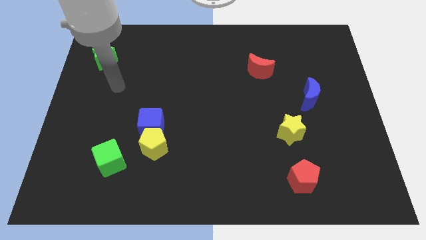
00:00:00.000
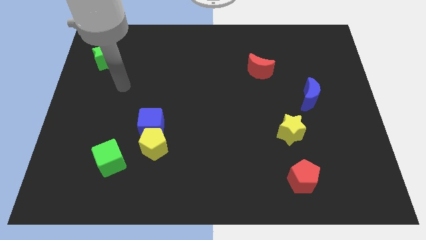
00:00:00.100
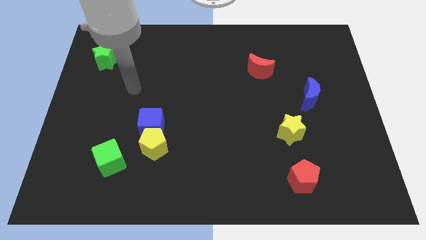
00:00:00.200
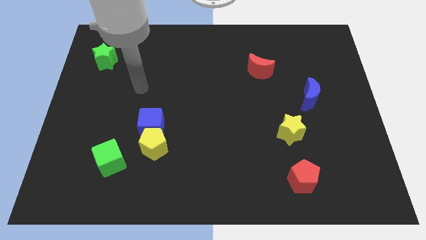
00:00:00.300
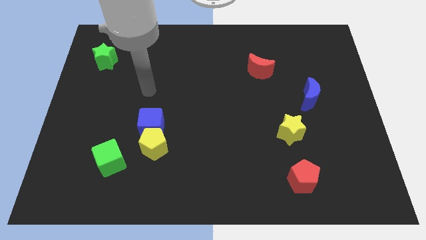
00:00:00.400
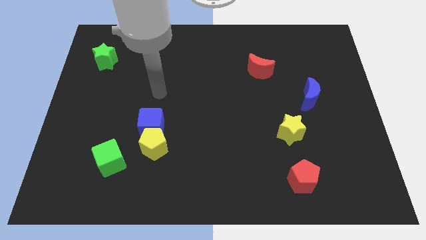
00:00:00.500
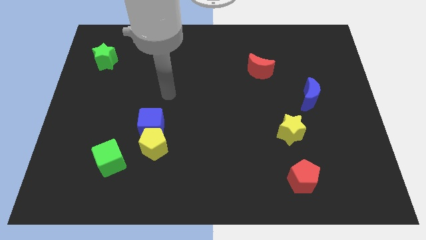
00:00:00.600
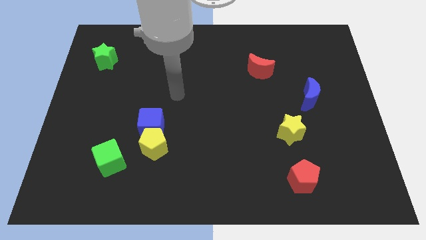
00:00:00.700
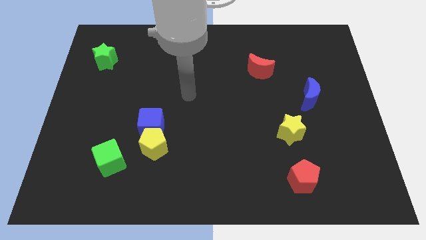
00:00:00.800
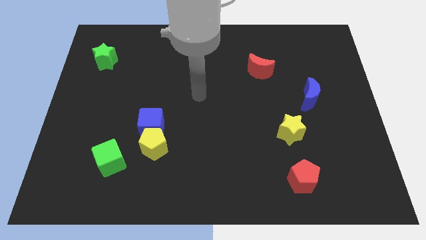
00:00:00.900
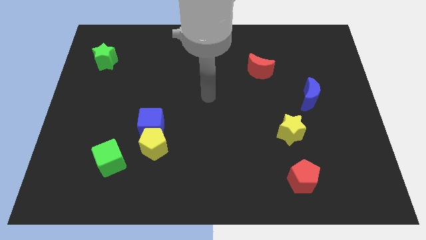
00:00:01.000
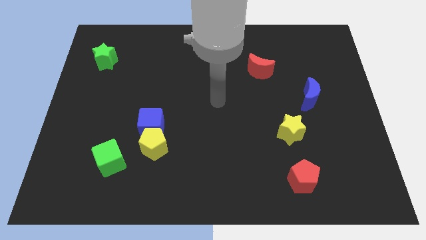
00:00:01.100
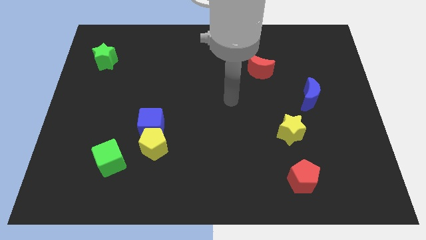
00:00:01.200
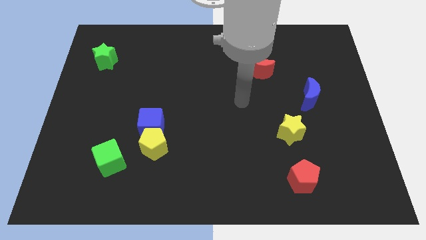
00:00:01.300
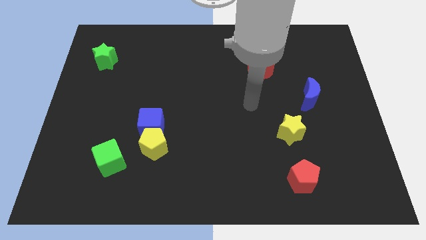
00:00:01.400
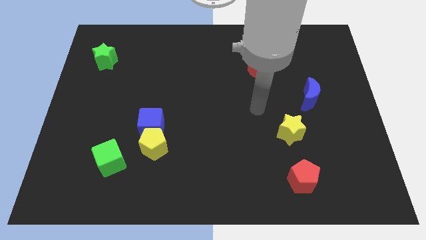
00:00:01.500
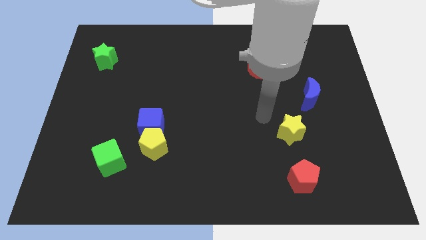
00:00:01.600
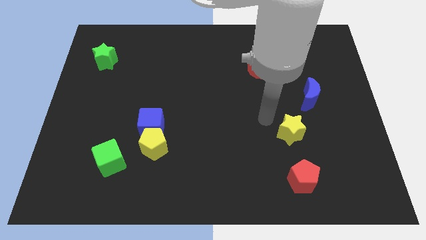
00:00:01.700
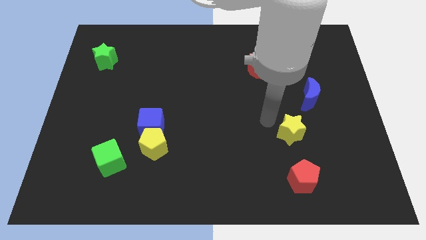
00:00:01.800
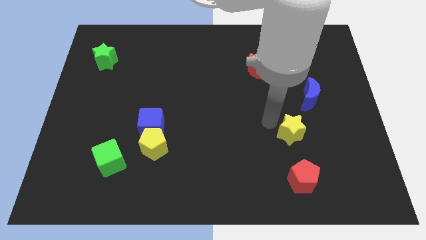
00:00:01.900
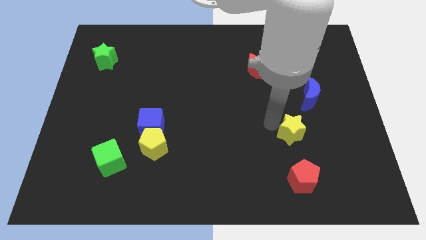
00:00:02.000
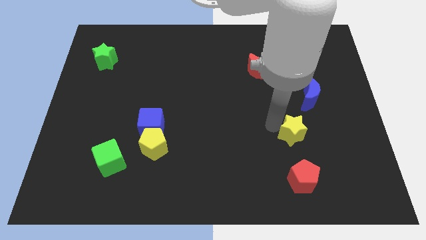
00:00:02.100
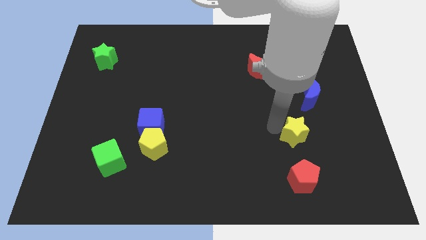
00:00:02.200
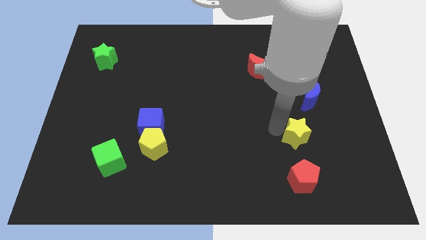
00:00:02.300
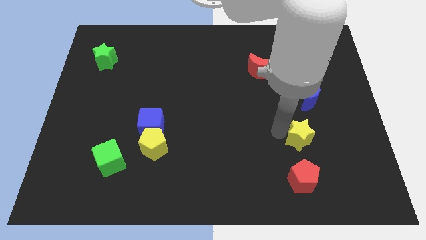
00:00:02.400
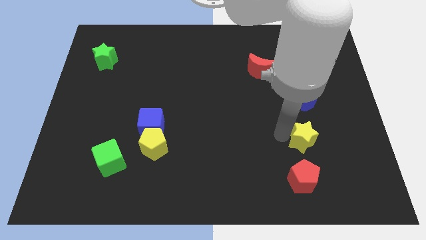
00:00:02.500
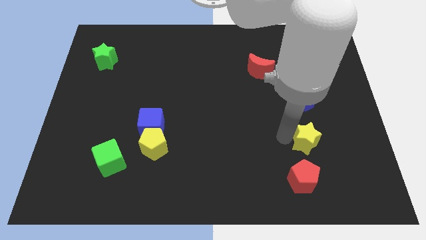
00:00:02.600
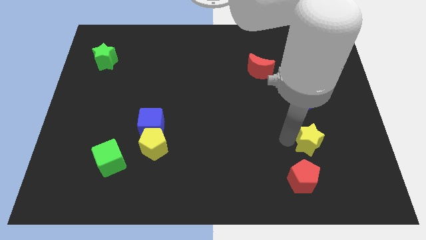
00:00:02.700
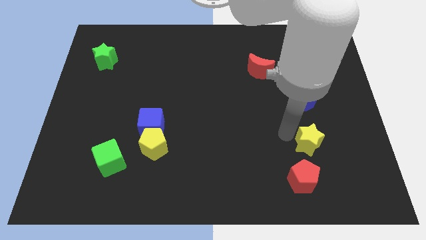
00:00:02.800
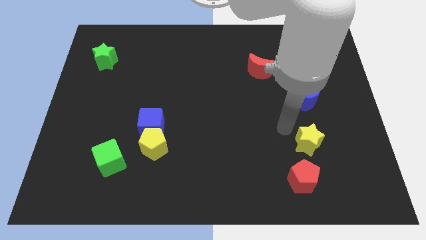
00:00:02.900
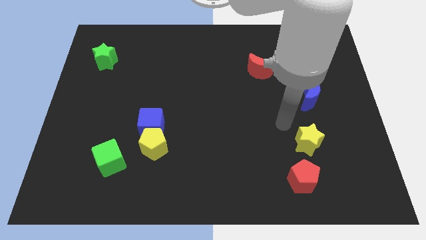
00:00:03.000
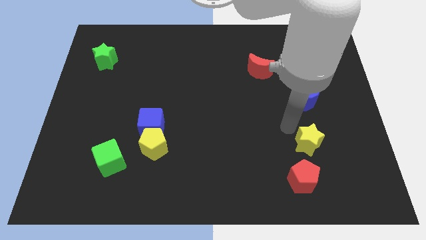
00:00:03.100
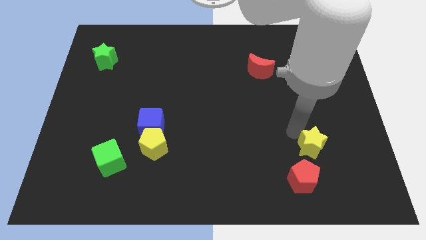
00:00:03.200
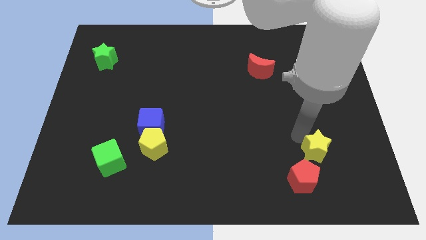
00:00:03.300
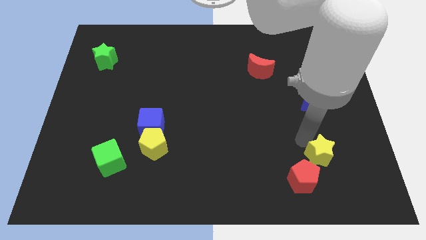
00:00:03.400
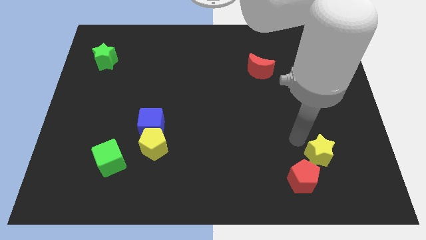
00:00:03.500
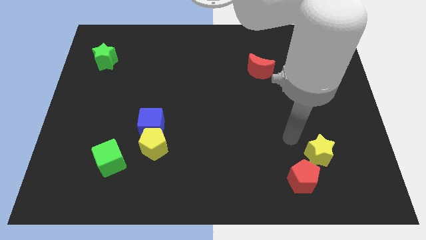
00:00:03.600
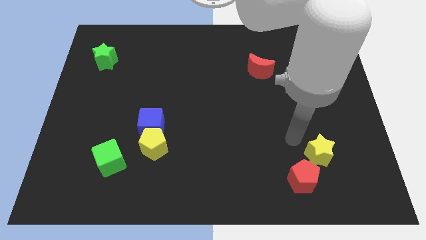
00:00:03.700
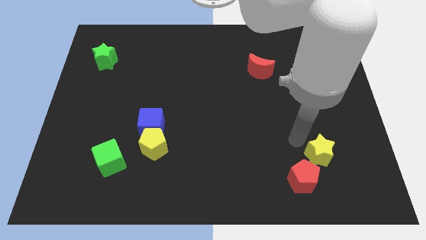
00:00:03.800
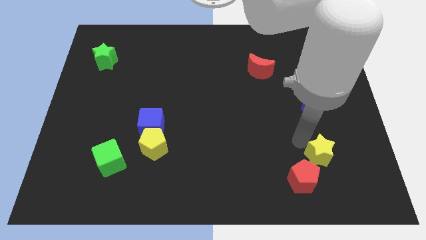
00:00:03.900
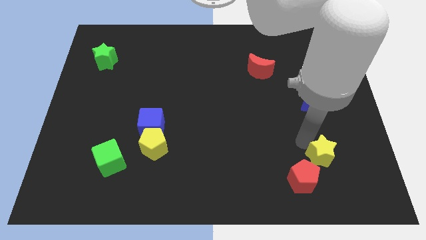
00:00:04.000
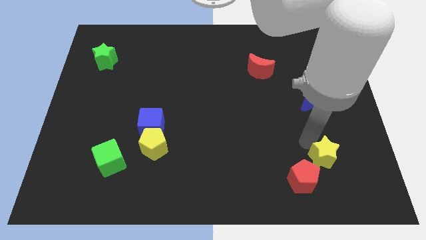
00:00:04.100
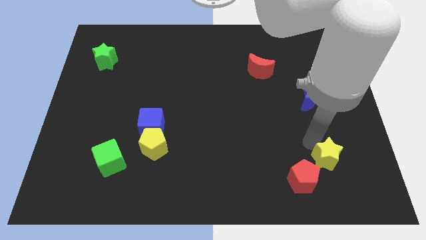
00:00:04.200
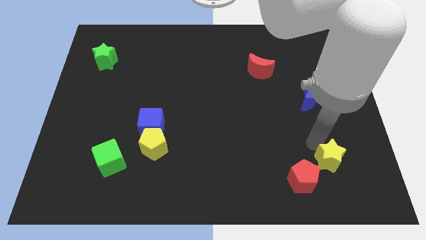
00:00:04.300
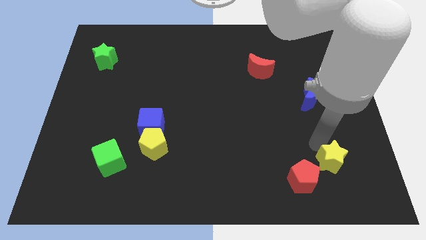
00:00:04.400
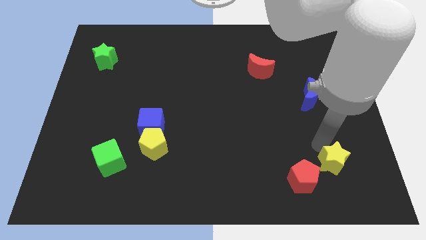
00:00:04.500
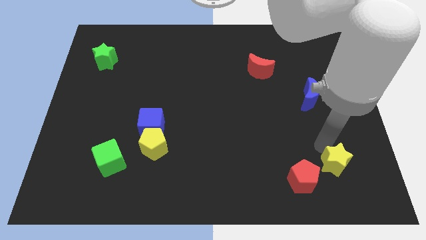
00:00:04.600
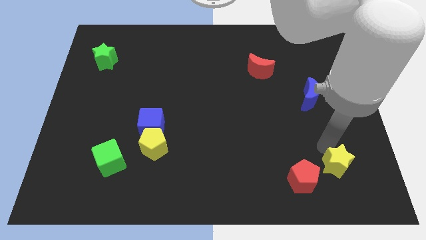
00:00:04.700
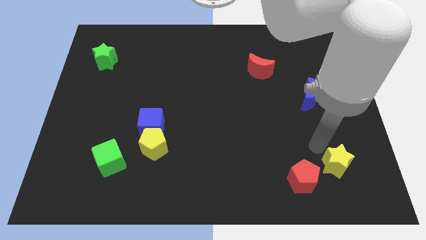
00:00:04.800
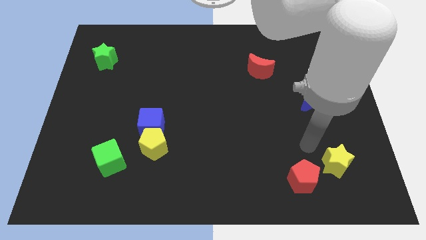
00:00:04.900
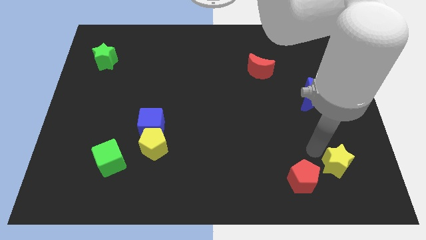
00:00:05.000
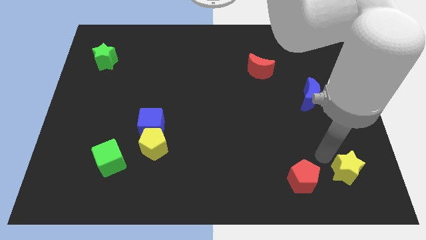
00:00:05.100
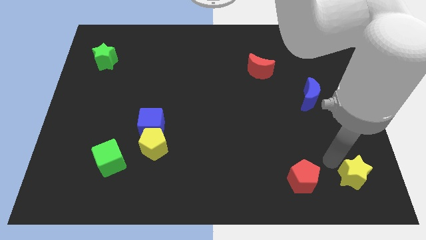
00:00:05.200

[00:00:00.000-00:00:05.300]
push the yellow star to the lower right corner

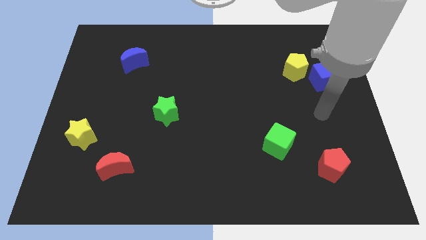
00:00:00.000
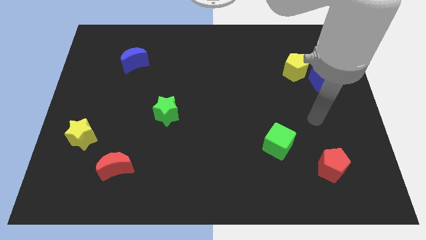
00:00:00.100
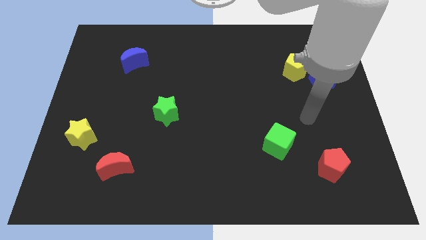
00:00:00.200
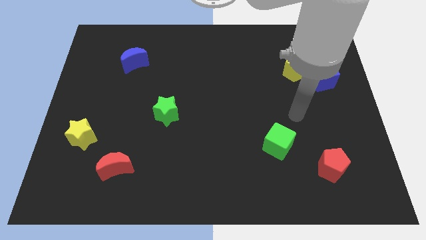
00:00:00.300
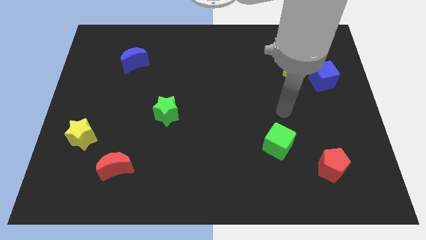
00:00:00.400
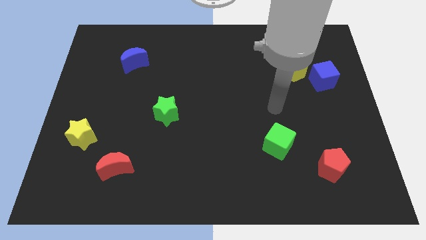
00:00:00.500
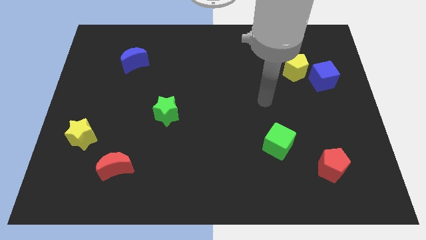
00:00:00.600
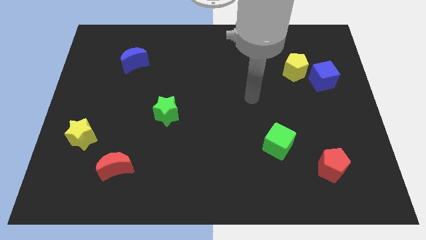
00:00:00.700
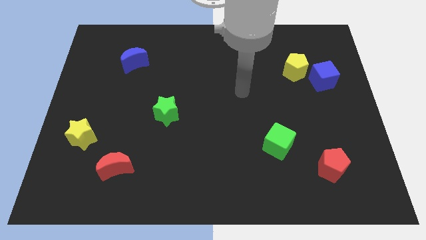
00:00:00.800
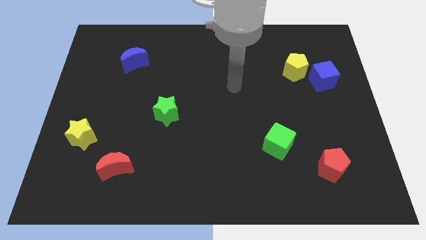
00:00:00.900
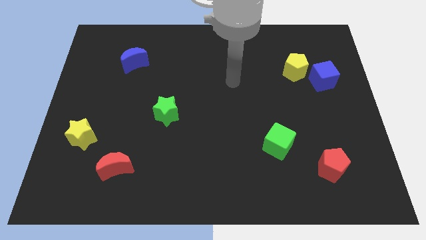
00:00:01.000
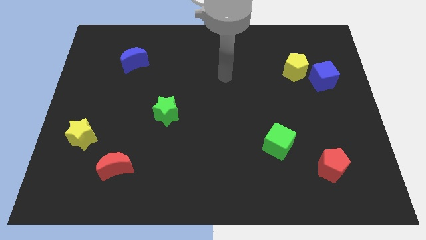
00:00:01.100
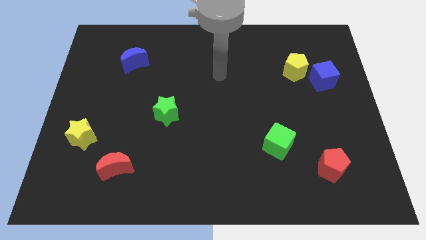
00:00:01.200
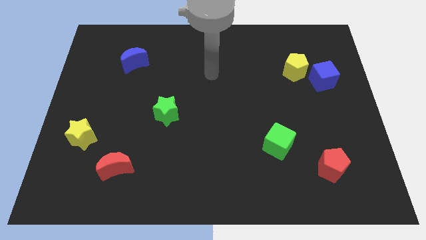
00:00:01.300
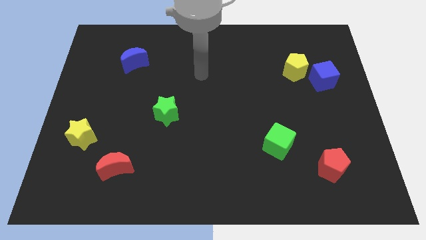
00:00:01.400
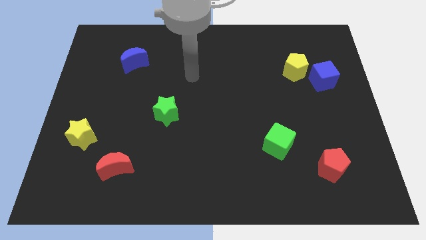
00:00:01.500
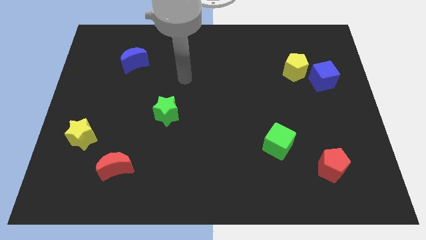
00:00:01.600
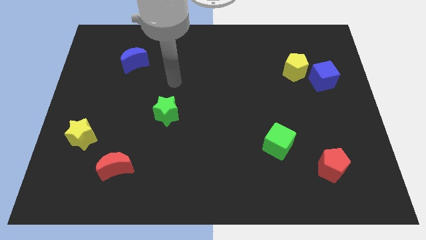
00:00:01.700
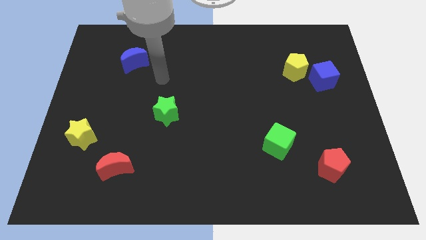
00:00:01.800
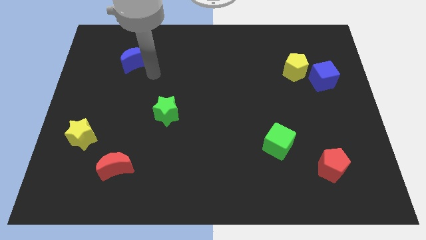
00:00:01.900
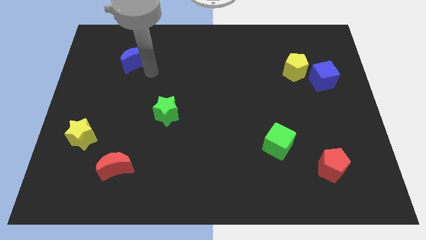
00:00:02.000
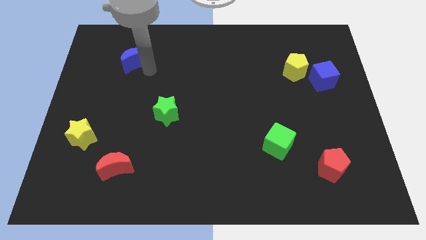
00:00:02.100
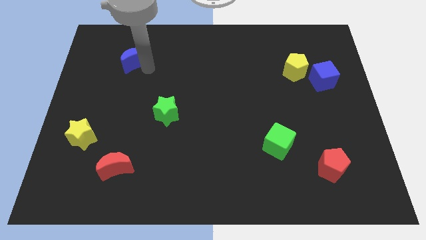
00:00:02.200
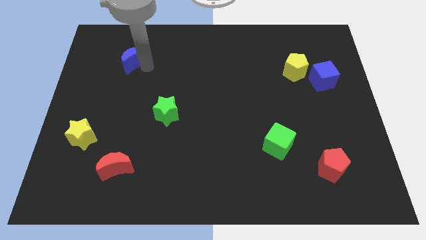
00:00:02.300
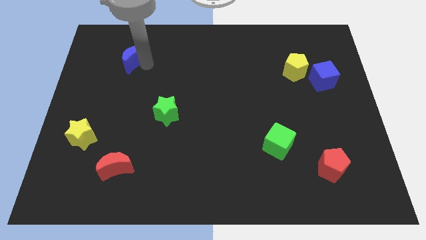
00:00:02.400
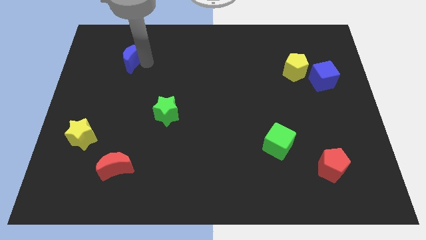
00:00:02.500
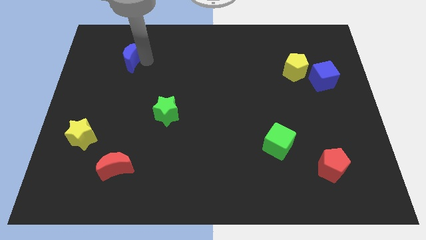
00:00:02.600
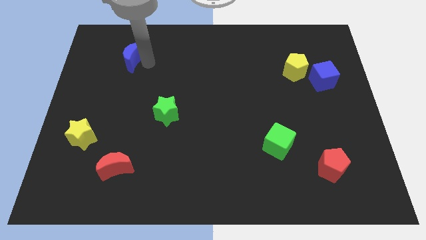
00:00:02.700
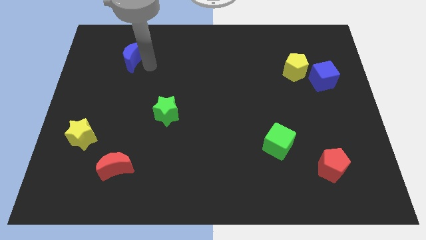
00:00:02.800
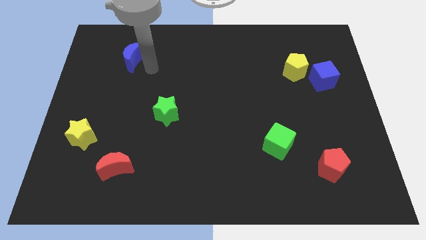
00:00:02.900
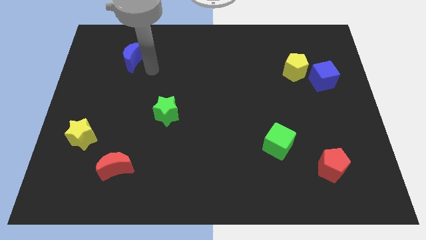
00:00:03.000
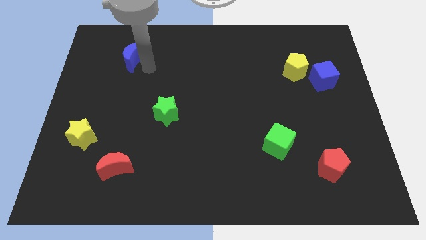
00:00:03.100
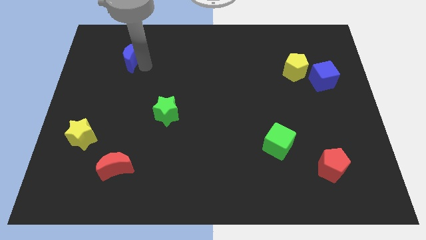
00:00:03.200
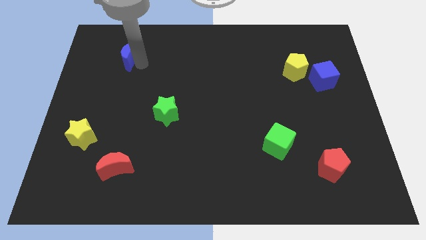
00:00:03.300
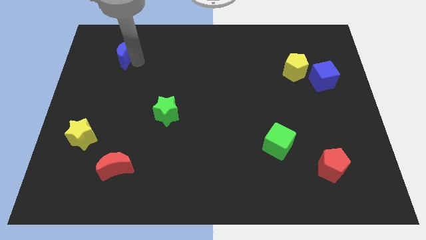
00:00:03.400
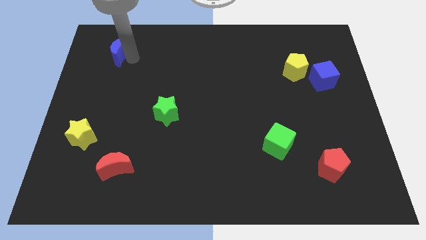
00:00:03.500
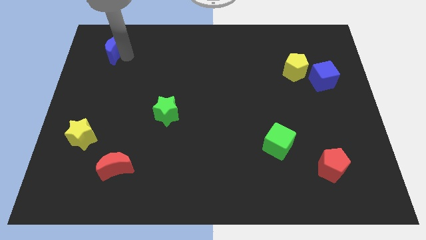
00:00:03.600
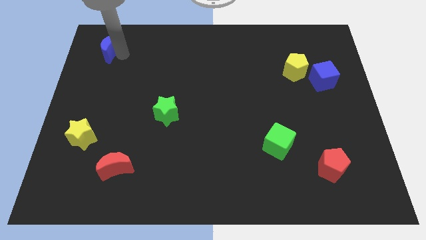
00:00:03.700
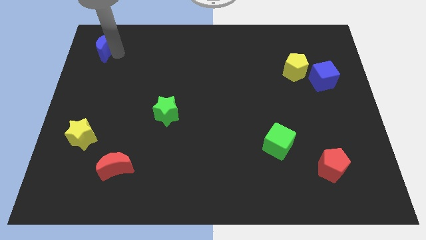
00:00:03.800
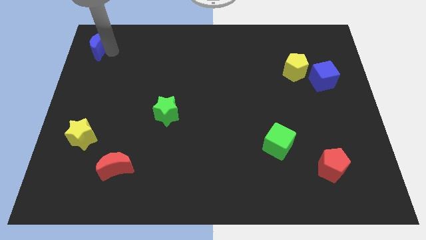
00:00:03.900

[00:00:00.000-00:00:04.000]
slide the blue moon to the top left of the board
